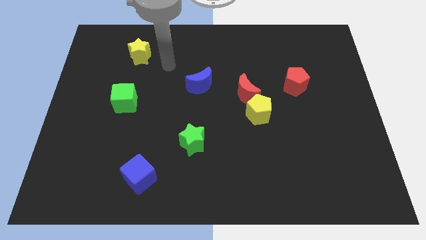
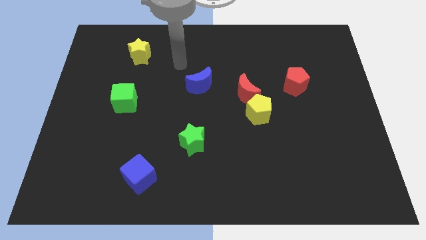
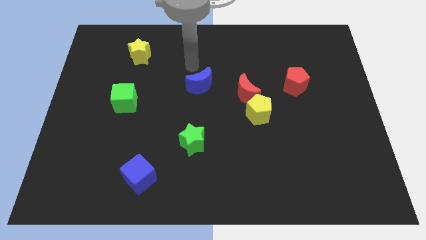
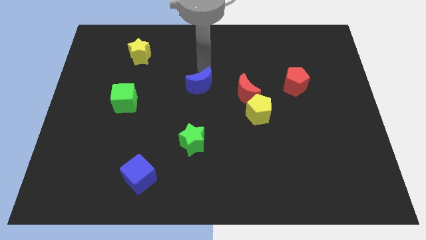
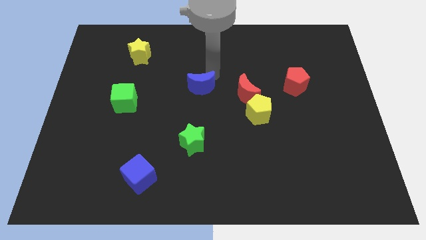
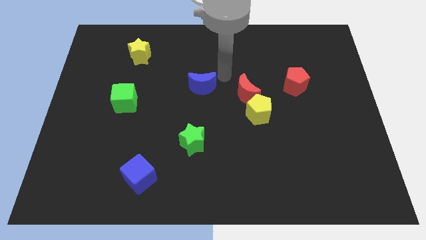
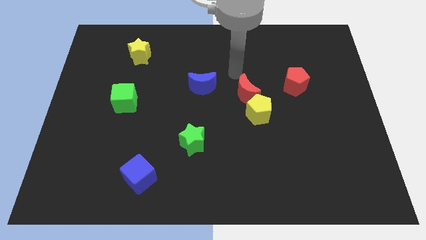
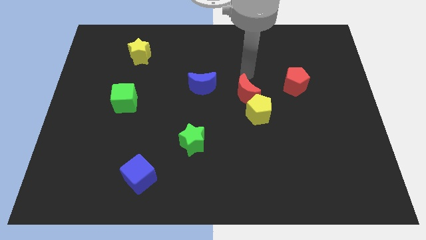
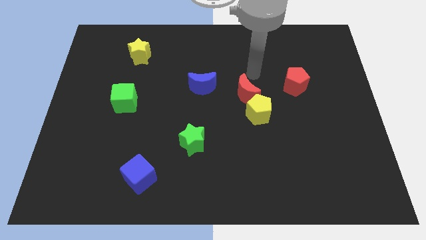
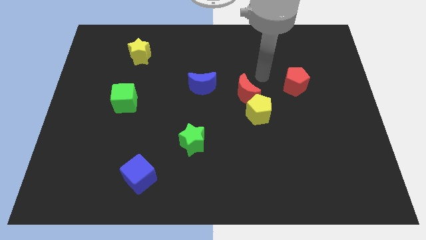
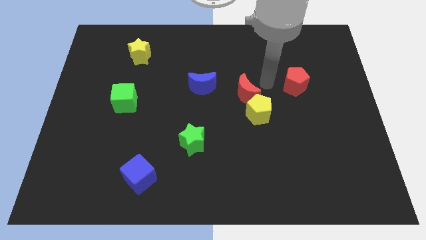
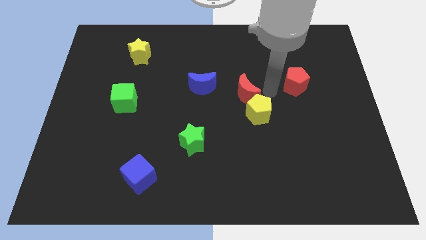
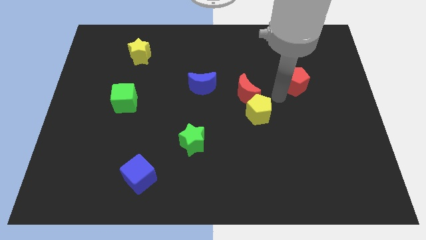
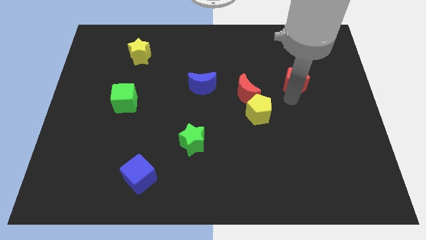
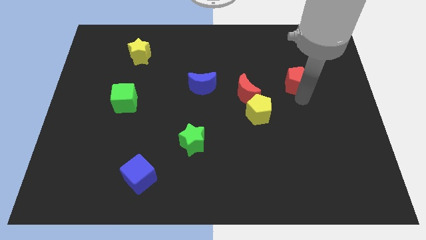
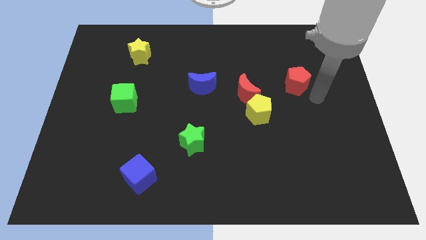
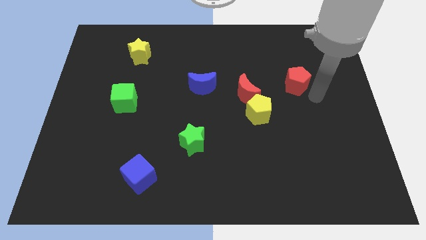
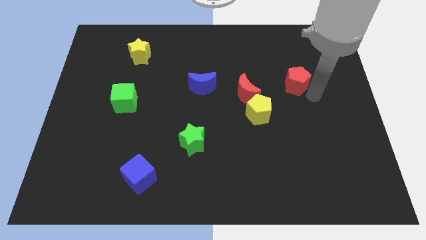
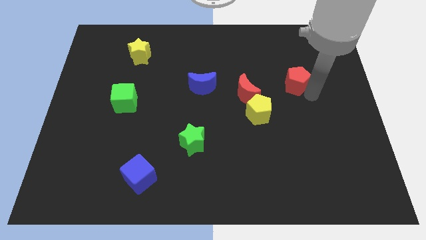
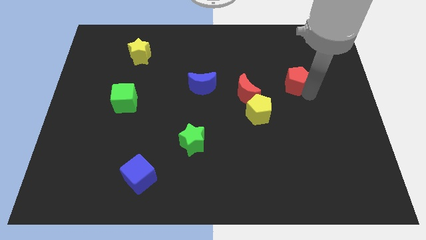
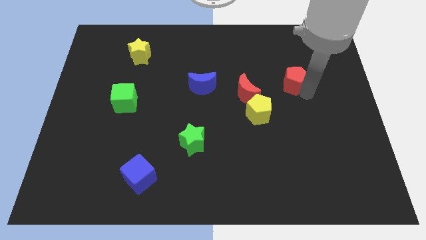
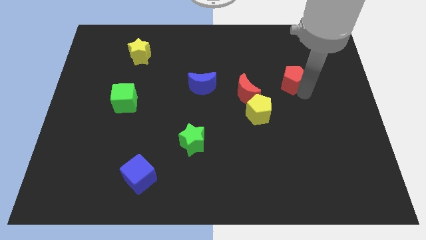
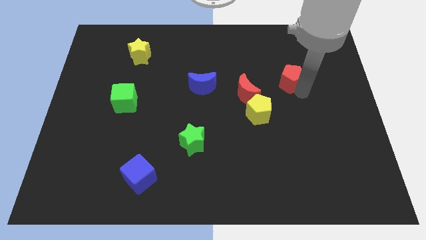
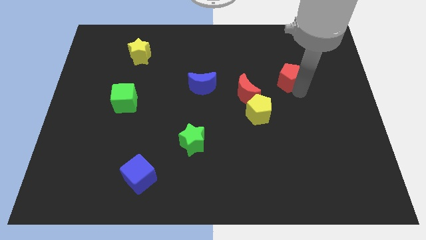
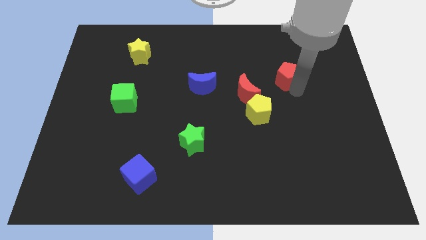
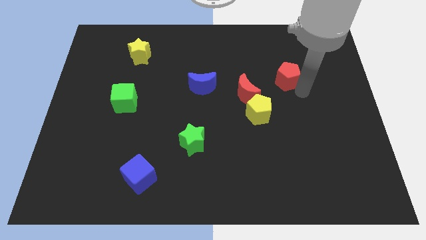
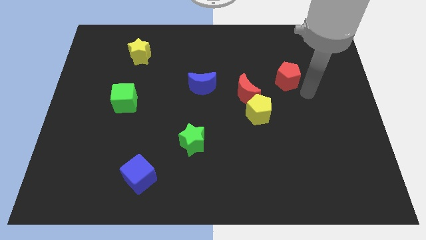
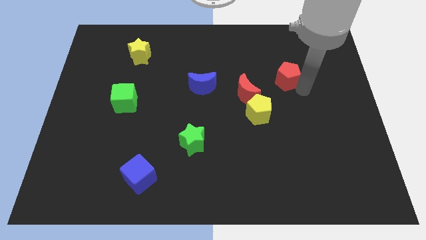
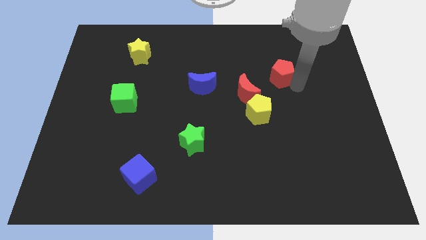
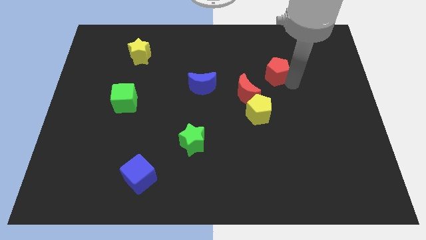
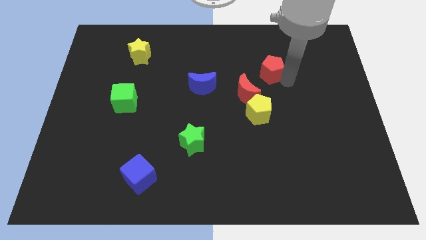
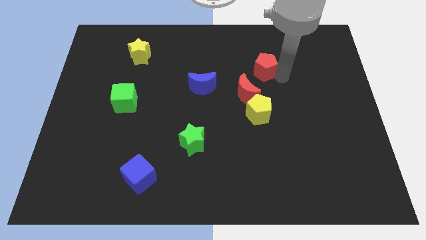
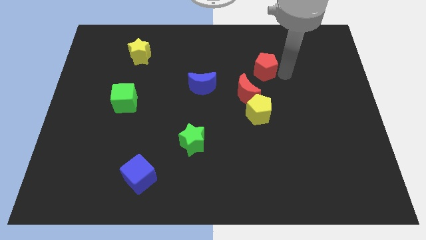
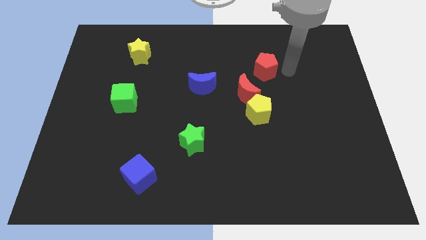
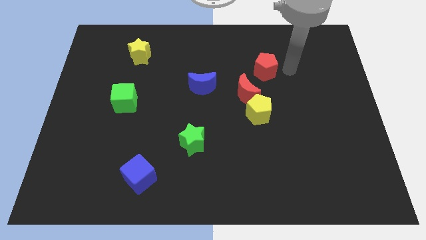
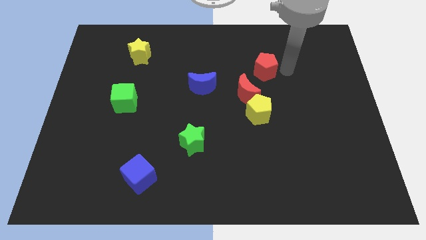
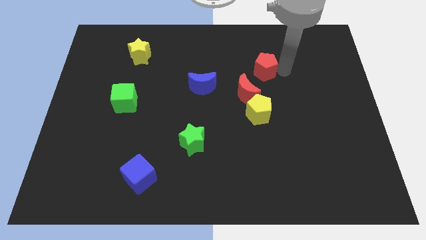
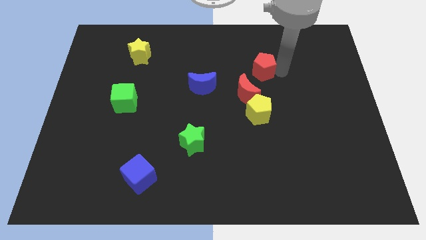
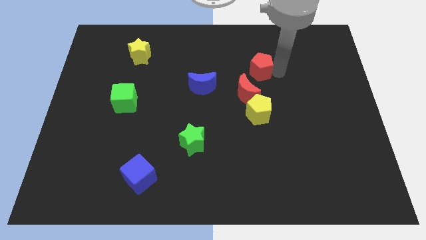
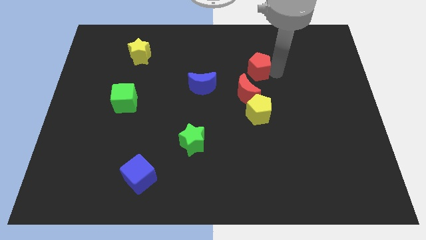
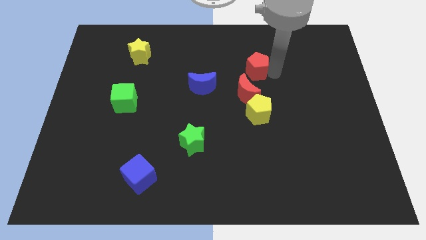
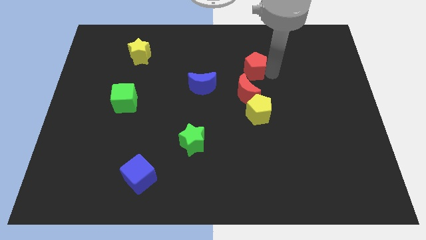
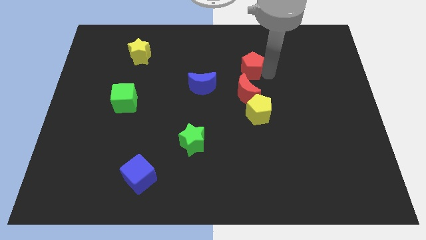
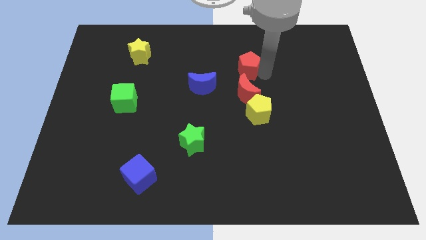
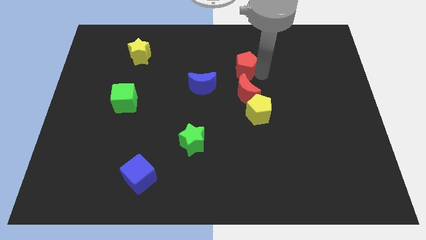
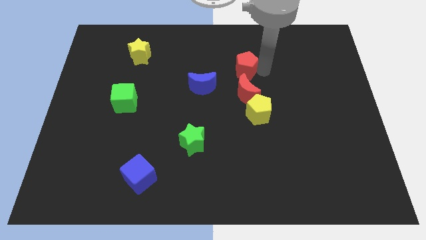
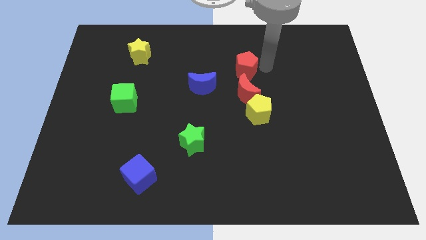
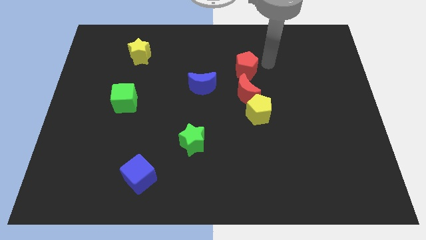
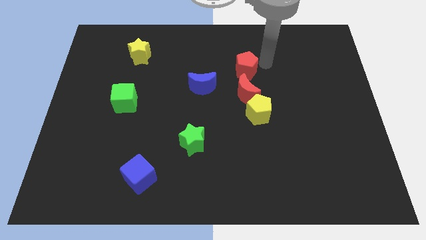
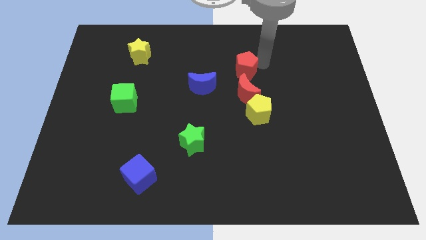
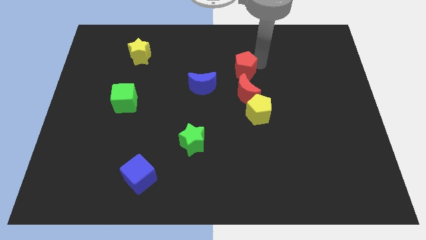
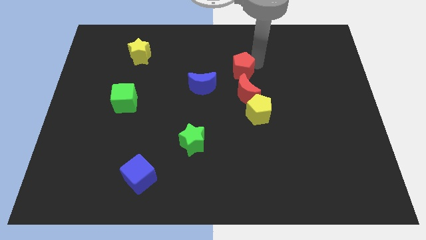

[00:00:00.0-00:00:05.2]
put the red pentagon to the middle

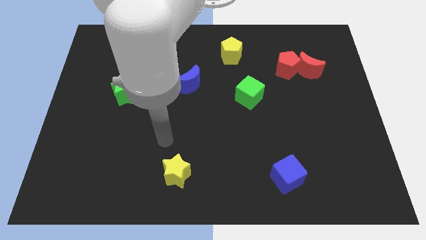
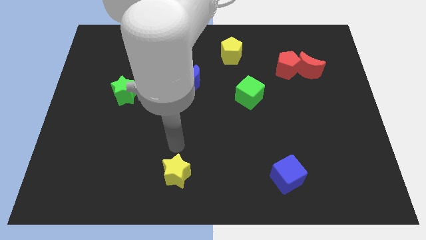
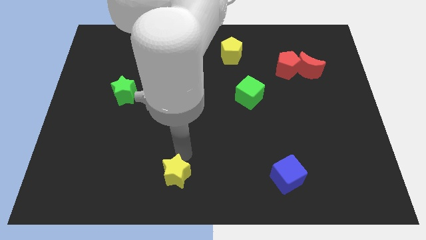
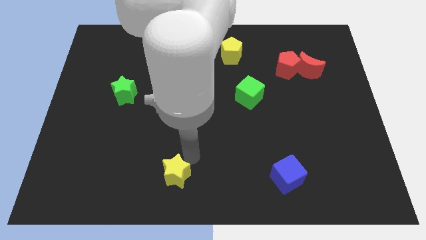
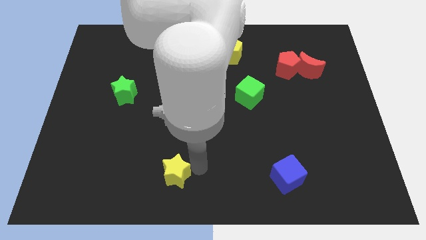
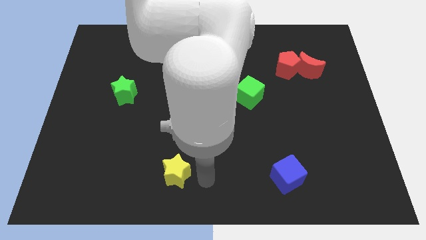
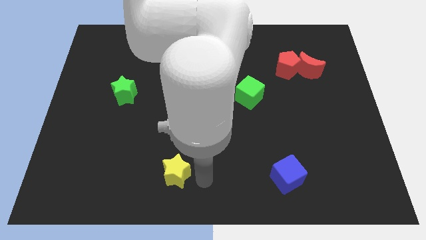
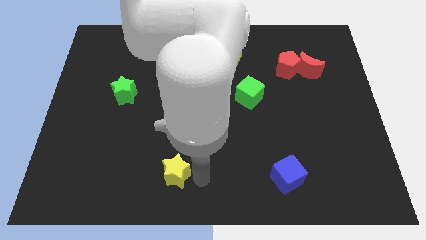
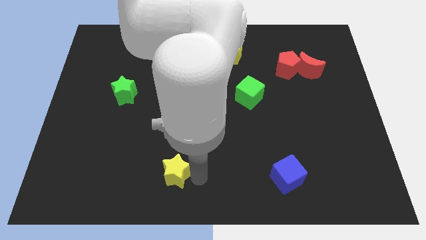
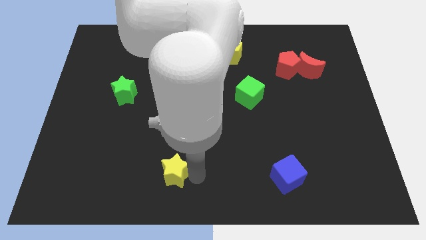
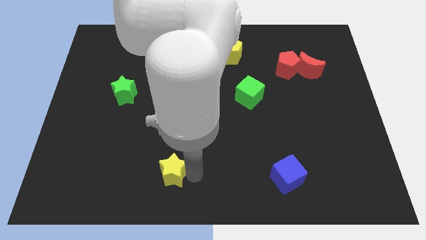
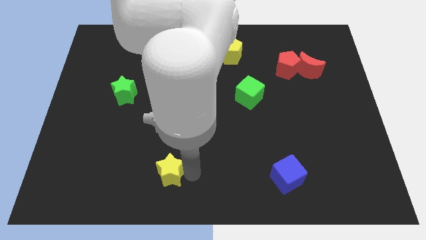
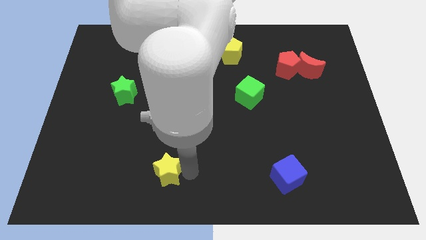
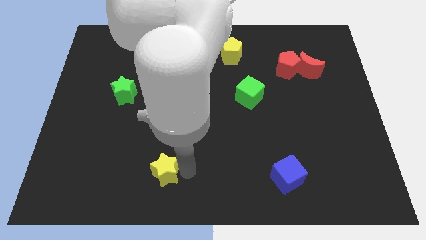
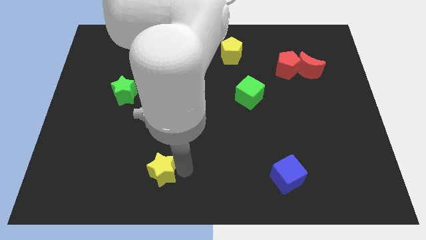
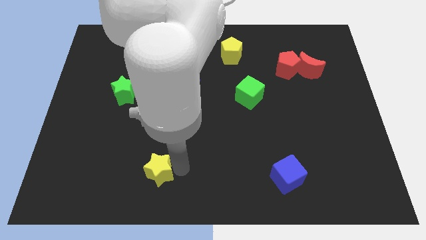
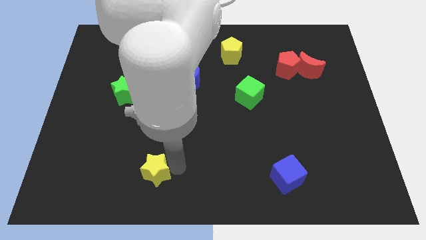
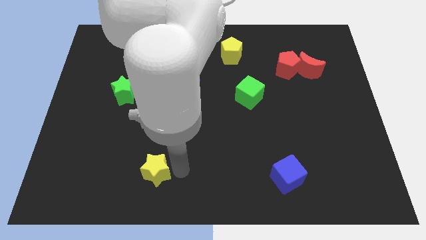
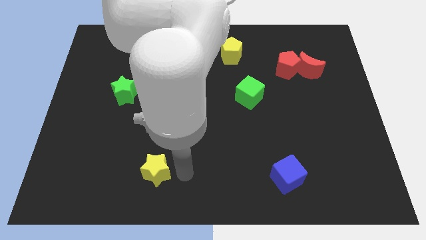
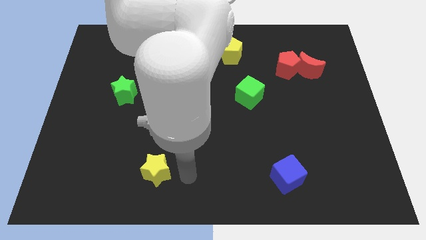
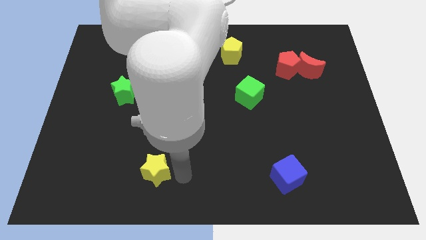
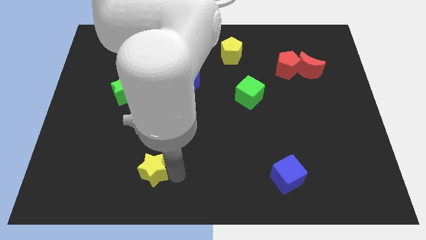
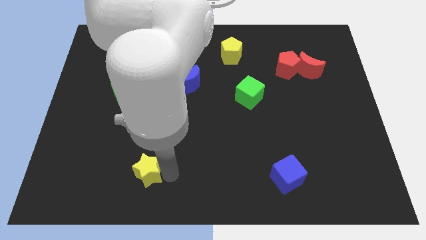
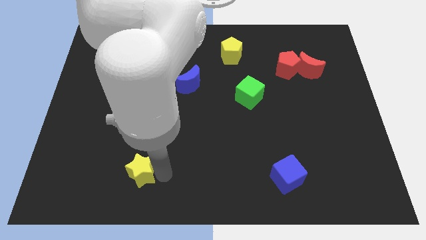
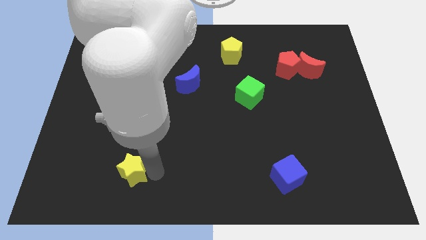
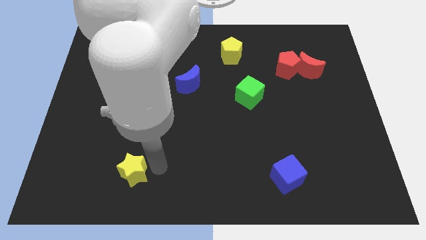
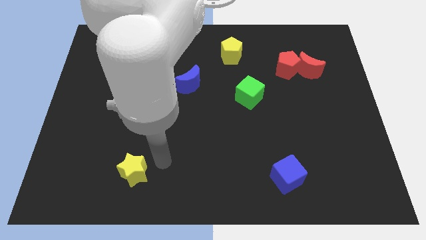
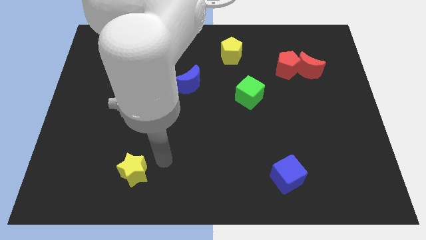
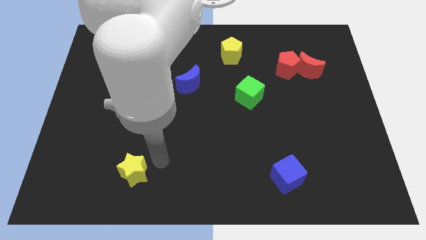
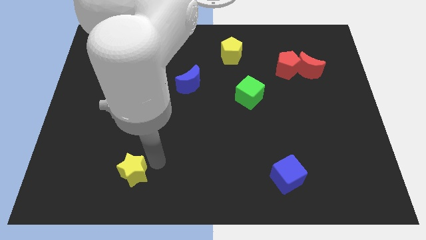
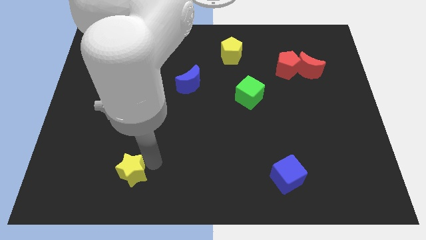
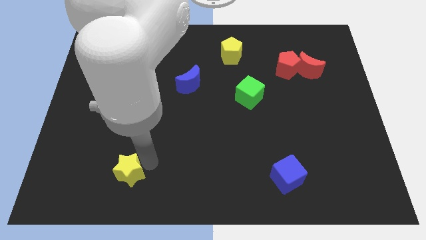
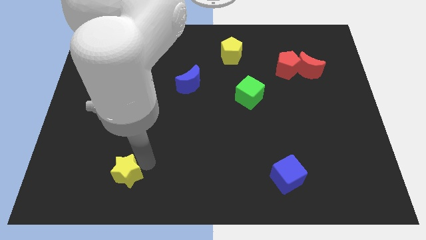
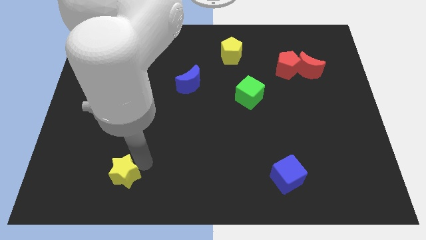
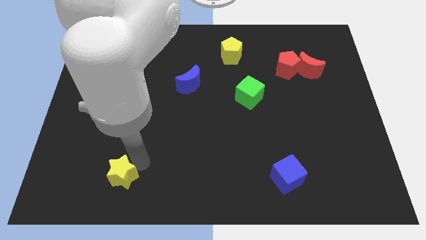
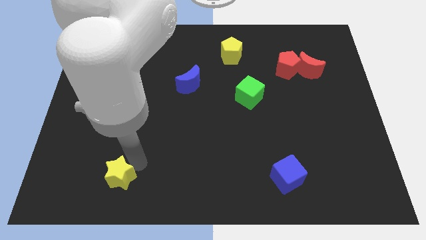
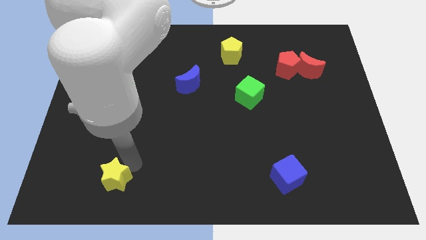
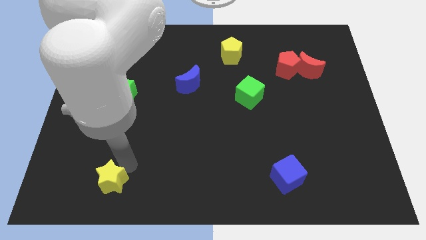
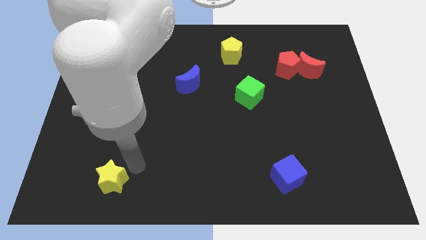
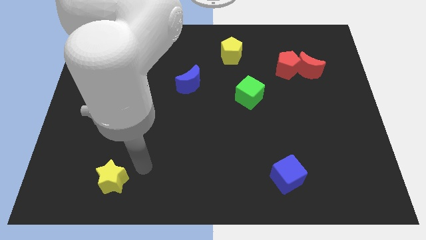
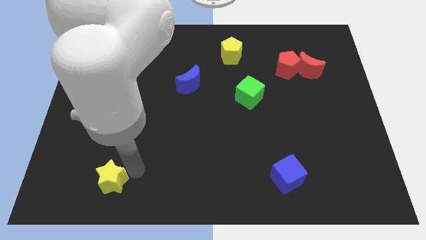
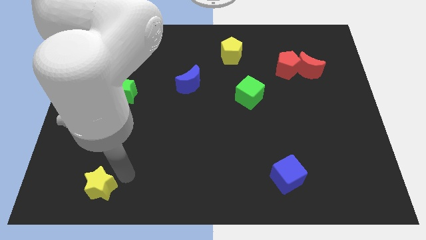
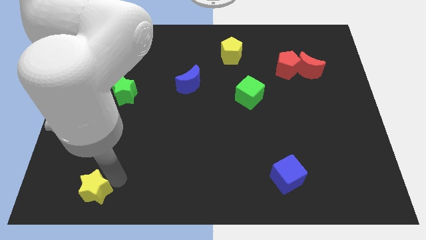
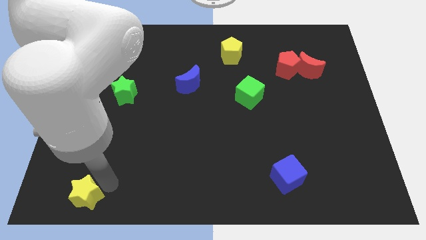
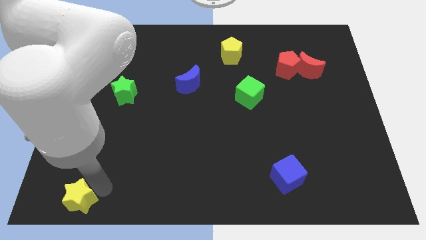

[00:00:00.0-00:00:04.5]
slide the yellow star to the bottom left of the board
